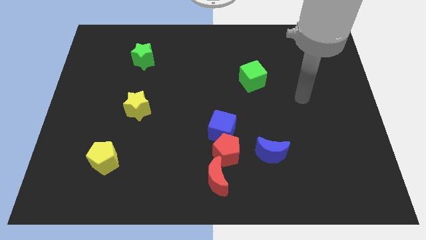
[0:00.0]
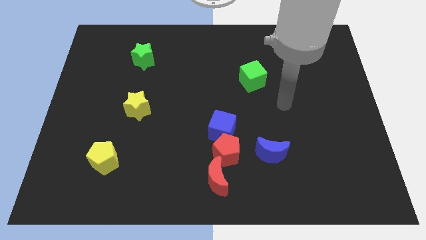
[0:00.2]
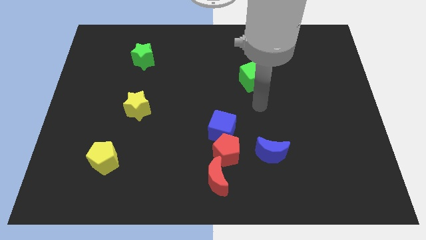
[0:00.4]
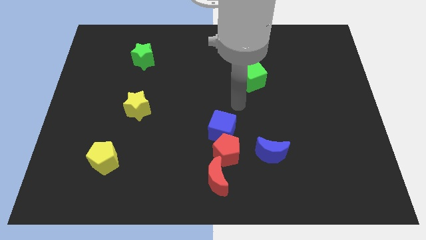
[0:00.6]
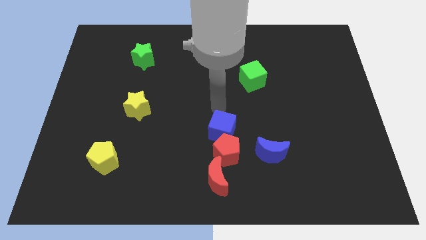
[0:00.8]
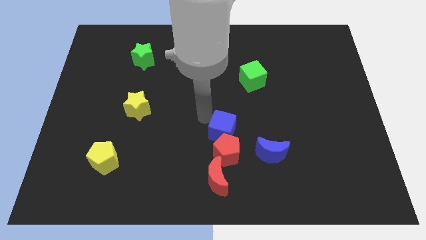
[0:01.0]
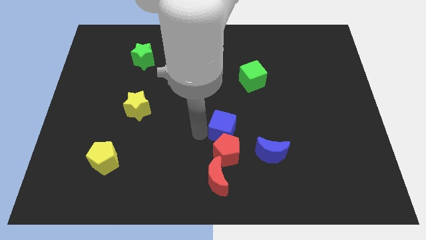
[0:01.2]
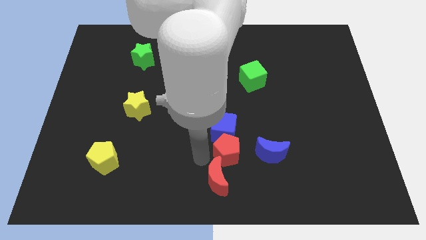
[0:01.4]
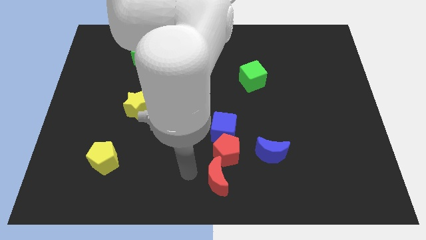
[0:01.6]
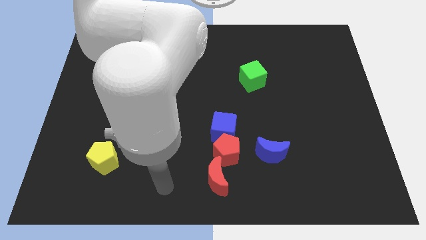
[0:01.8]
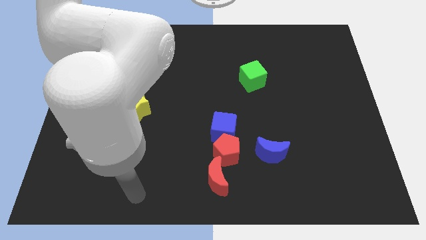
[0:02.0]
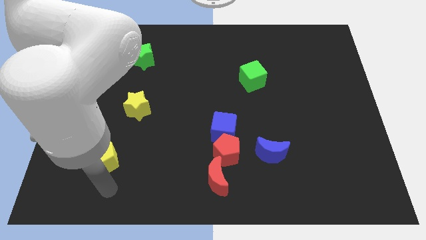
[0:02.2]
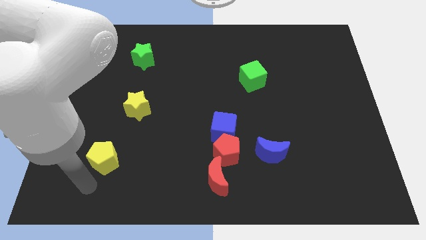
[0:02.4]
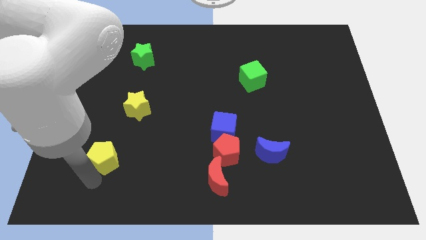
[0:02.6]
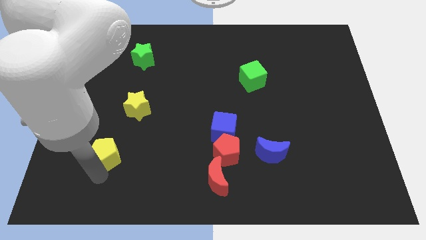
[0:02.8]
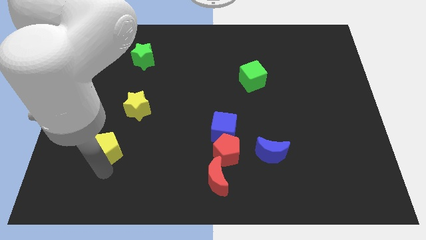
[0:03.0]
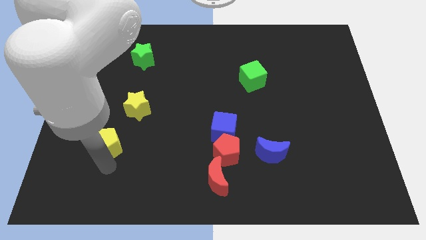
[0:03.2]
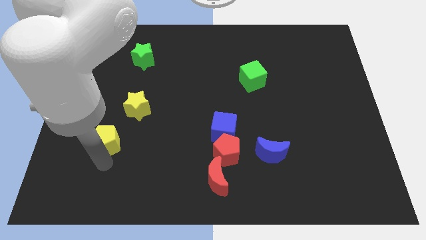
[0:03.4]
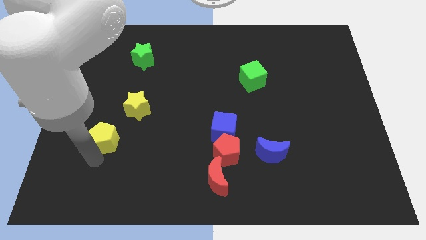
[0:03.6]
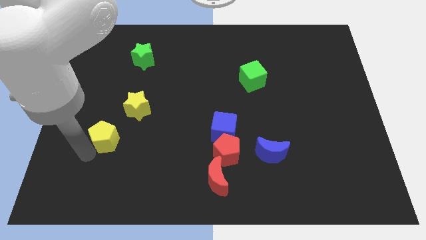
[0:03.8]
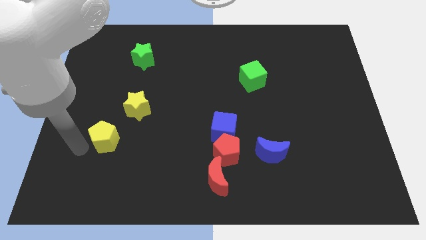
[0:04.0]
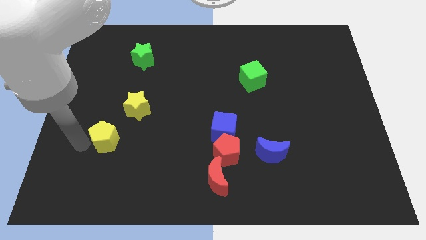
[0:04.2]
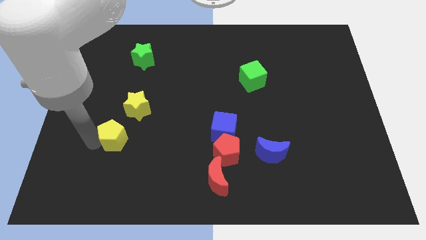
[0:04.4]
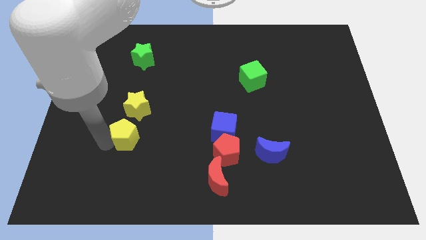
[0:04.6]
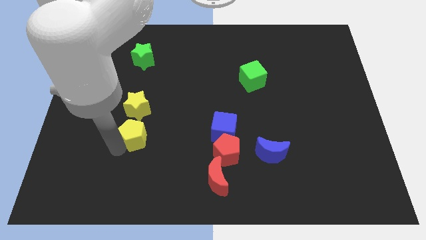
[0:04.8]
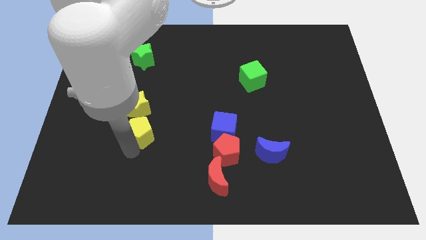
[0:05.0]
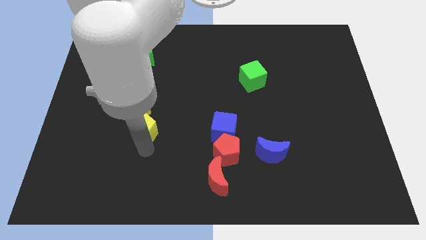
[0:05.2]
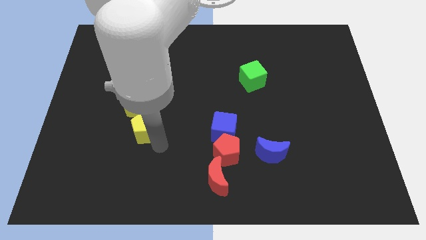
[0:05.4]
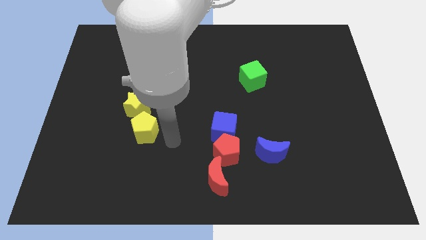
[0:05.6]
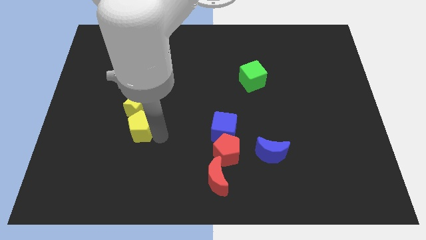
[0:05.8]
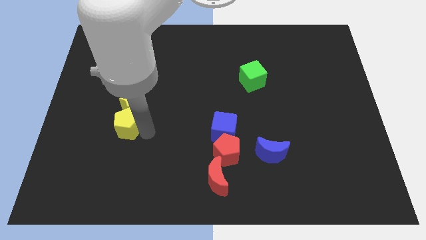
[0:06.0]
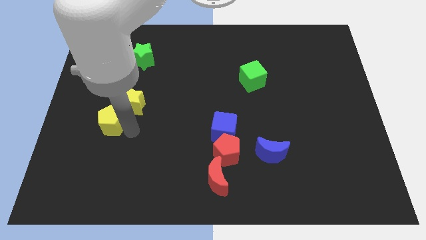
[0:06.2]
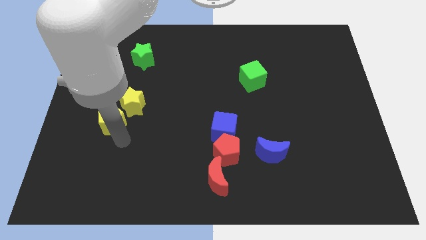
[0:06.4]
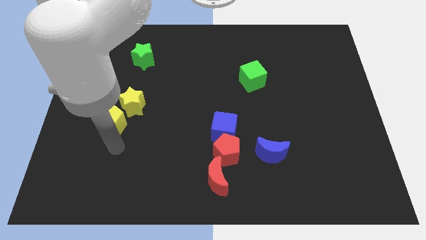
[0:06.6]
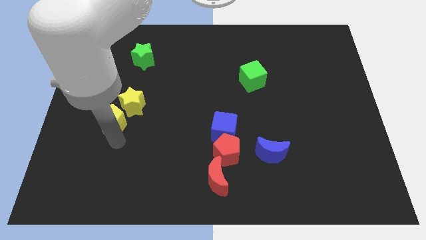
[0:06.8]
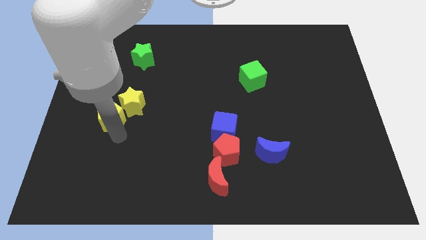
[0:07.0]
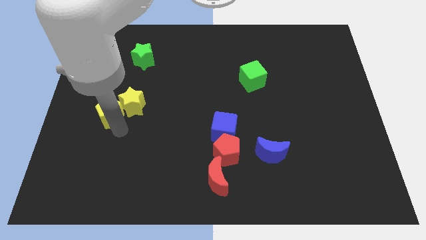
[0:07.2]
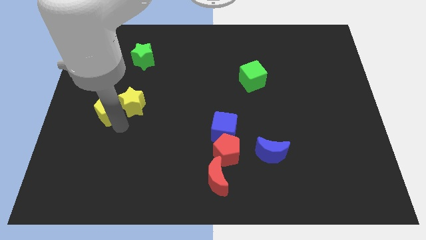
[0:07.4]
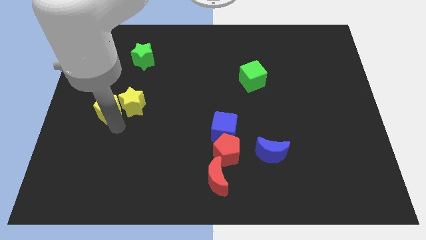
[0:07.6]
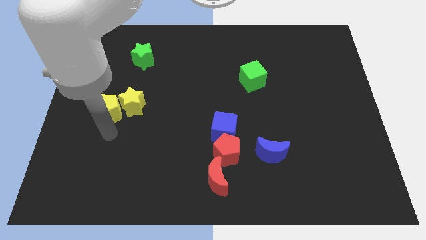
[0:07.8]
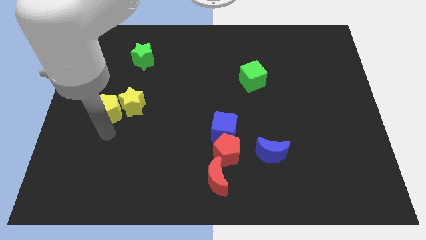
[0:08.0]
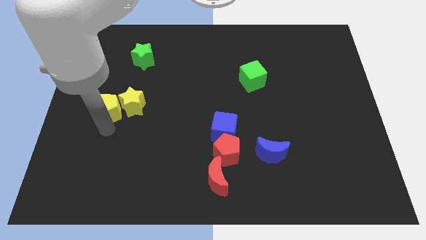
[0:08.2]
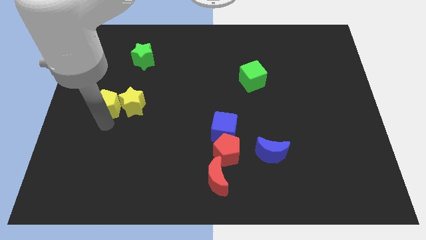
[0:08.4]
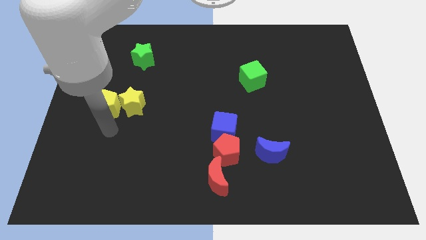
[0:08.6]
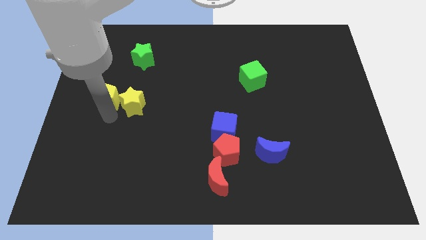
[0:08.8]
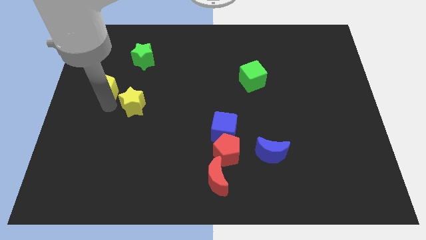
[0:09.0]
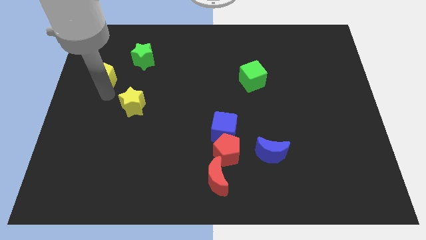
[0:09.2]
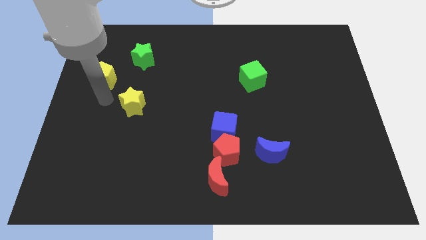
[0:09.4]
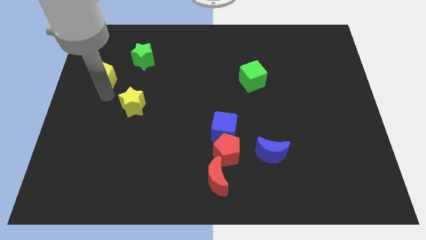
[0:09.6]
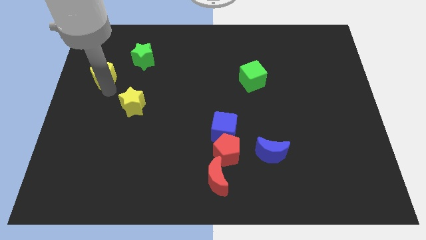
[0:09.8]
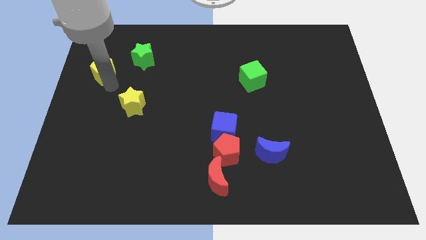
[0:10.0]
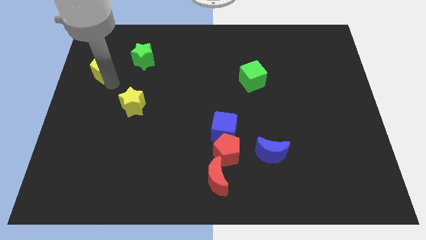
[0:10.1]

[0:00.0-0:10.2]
push the yellow pentagon to the left of the green star

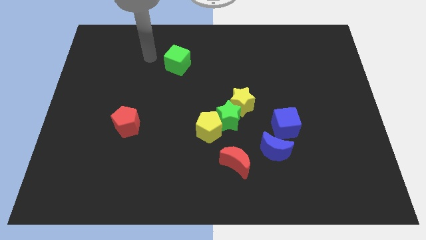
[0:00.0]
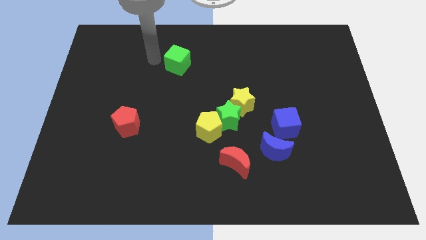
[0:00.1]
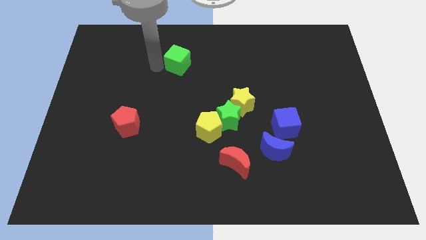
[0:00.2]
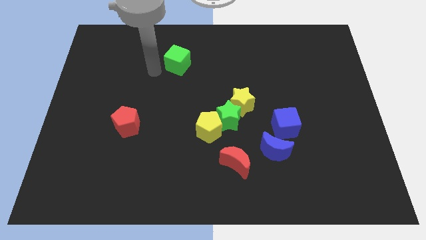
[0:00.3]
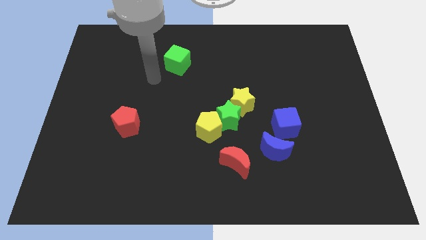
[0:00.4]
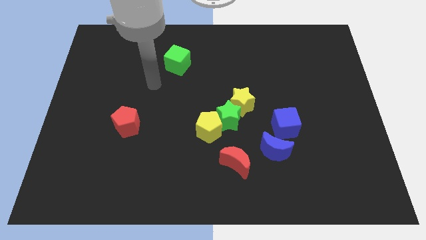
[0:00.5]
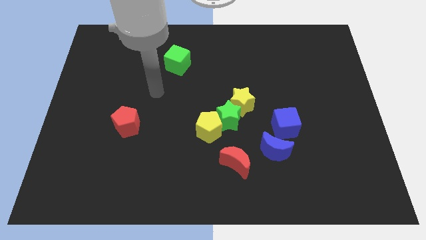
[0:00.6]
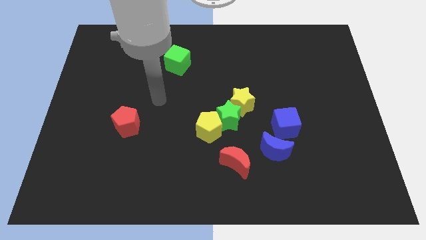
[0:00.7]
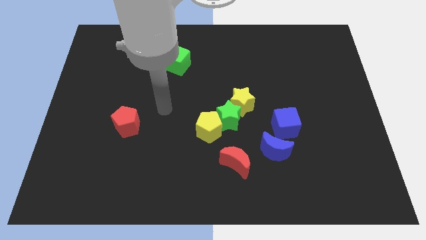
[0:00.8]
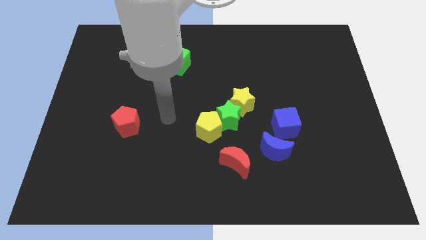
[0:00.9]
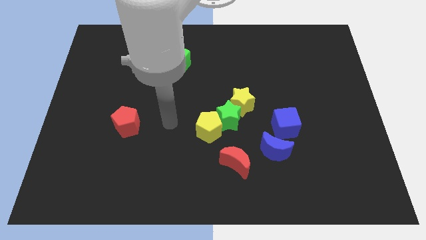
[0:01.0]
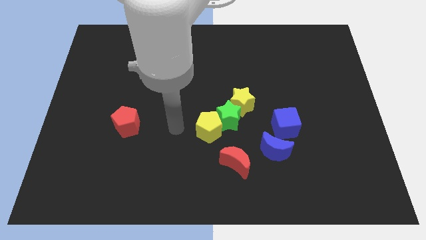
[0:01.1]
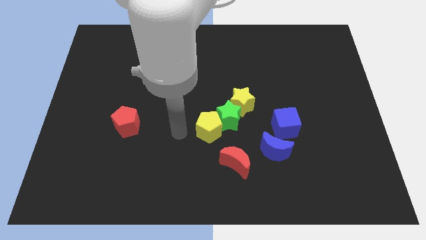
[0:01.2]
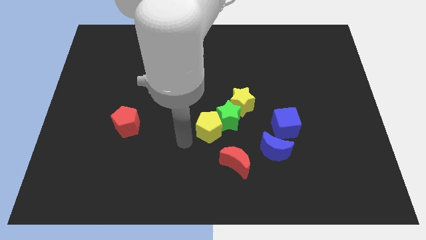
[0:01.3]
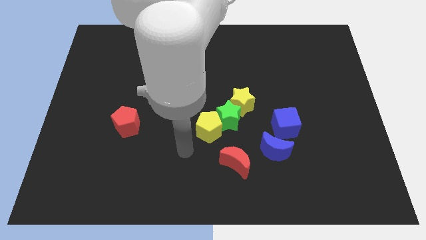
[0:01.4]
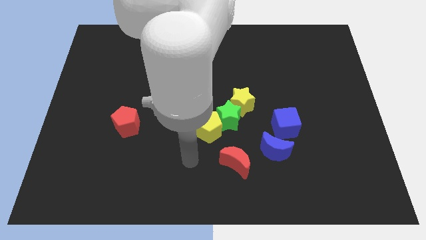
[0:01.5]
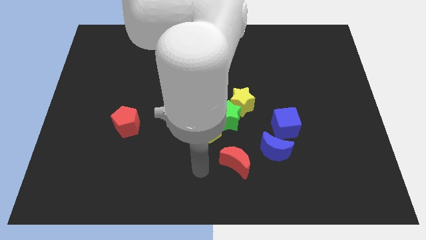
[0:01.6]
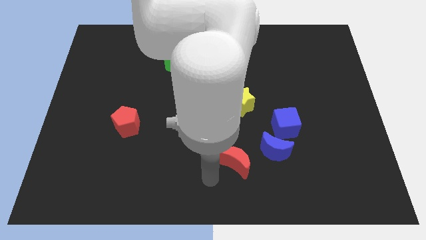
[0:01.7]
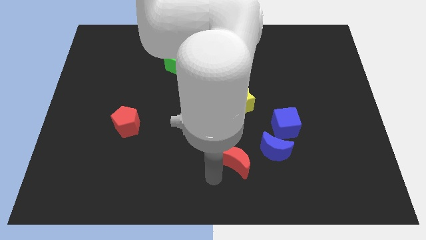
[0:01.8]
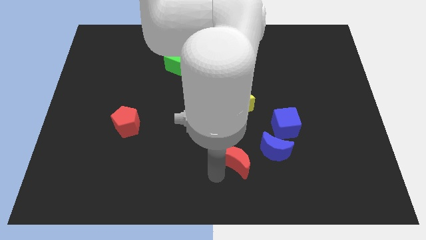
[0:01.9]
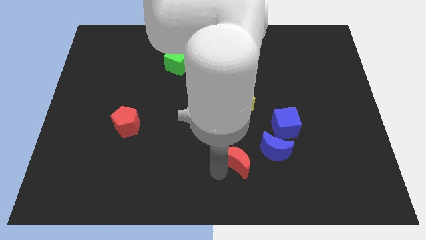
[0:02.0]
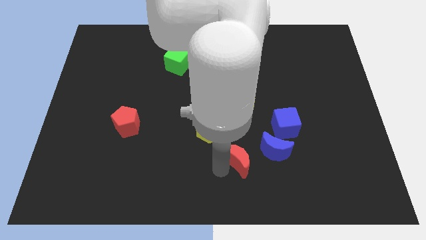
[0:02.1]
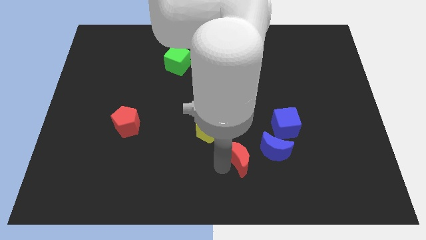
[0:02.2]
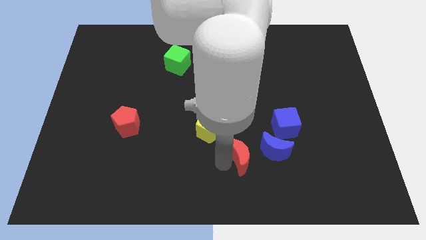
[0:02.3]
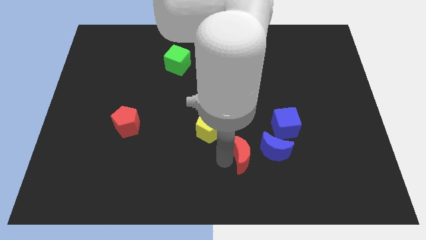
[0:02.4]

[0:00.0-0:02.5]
slide the red moon to the bottom left side of the blue cube

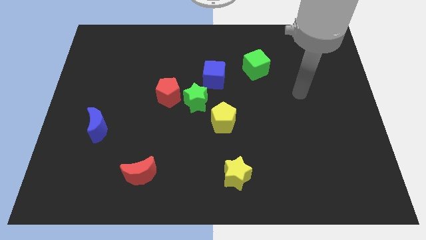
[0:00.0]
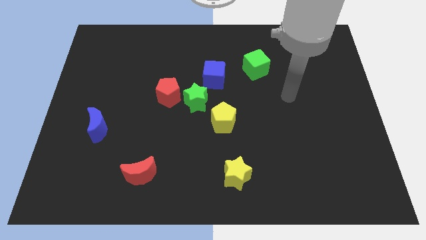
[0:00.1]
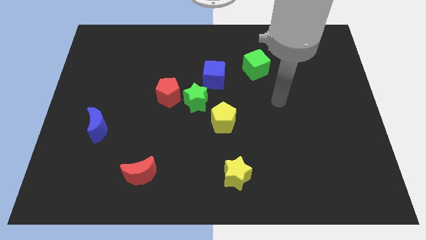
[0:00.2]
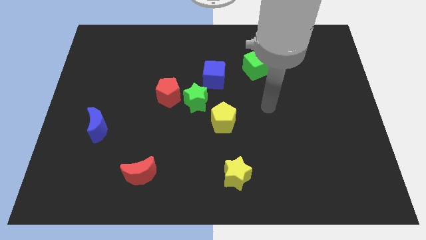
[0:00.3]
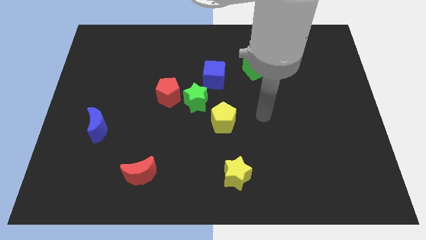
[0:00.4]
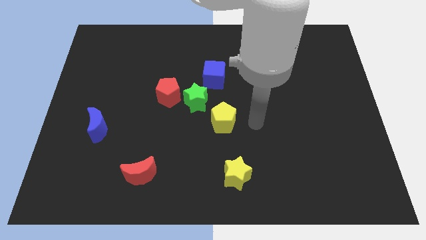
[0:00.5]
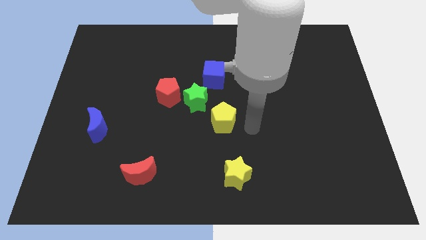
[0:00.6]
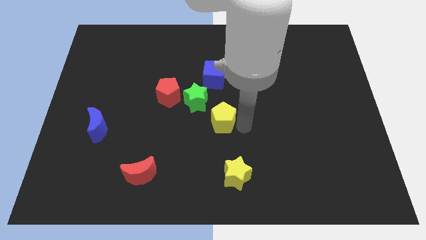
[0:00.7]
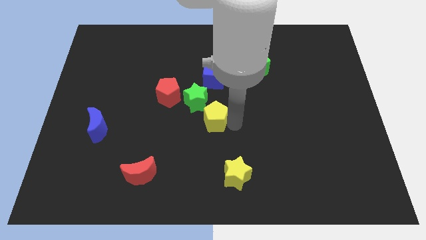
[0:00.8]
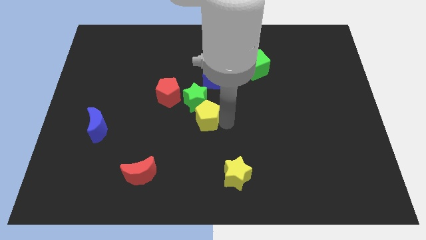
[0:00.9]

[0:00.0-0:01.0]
put the yellow pentagon to the bottom right side of the red pentagon
